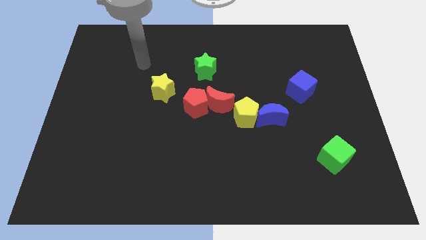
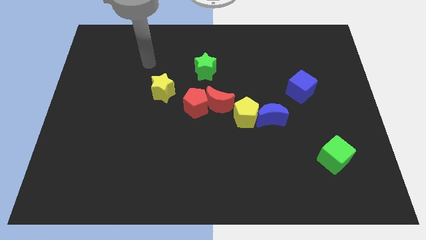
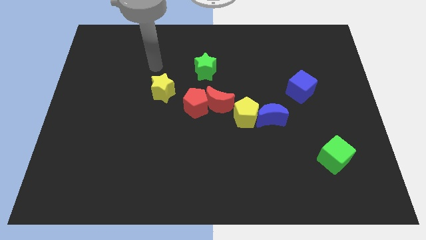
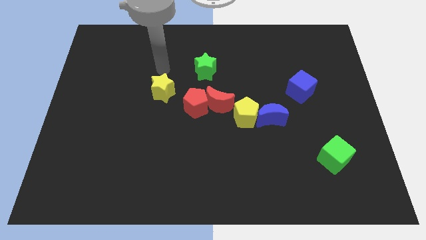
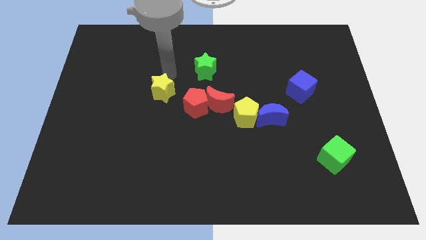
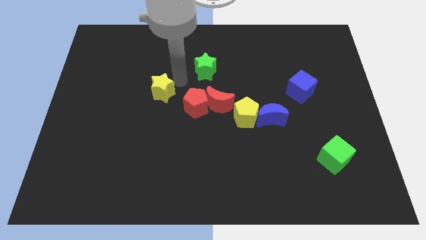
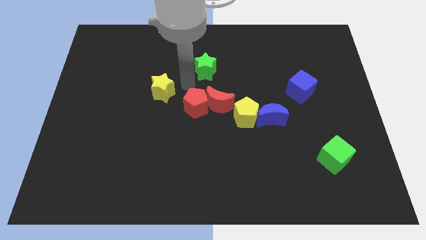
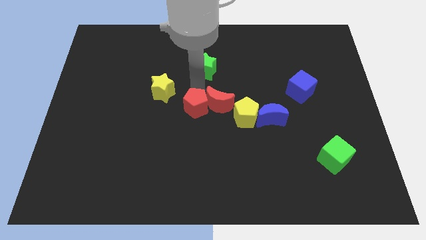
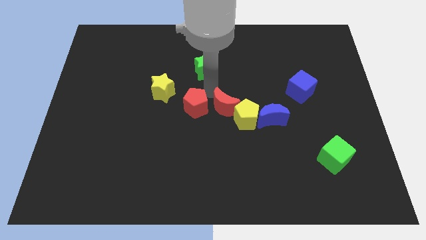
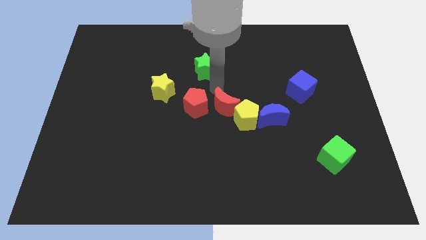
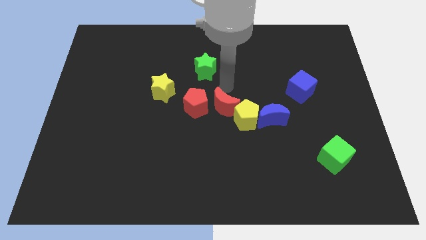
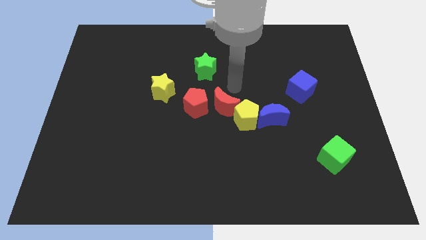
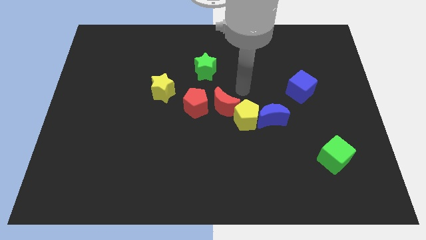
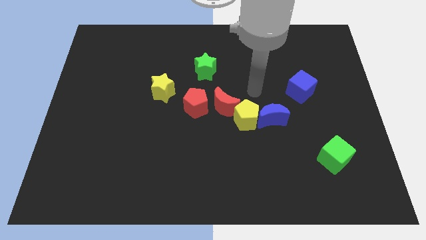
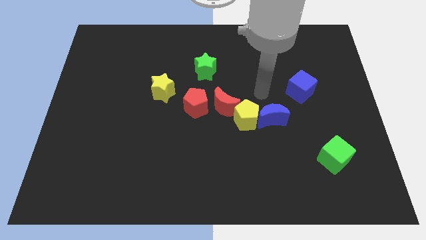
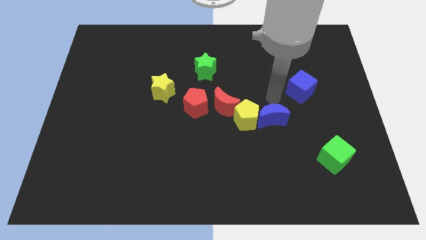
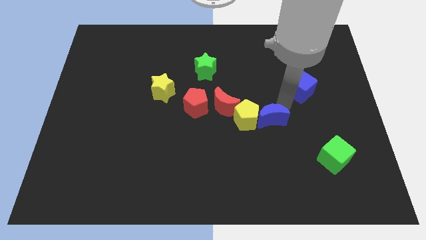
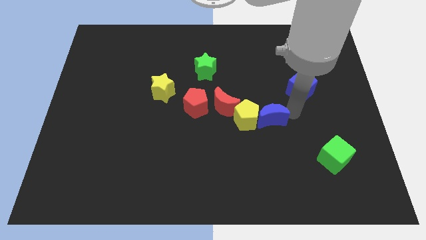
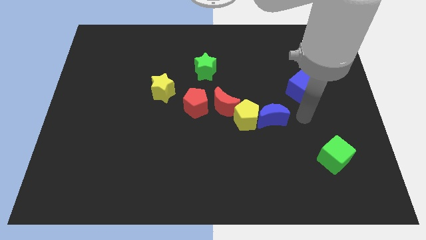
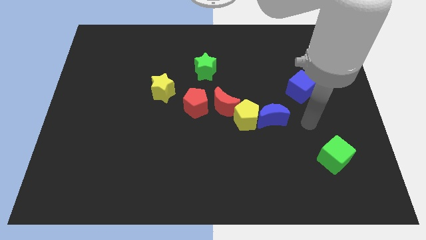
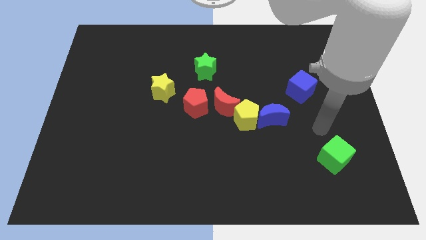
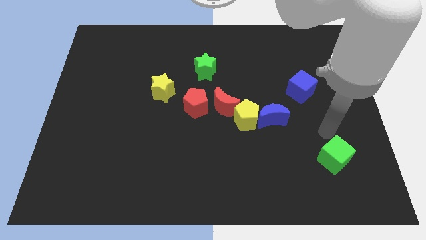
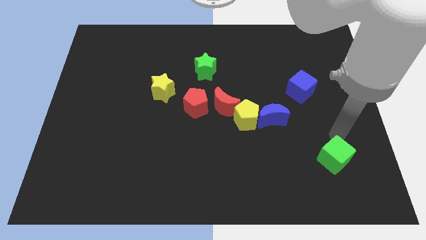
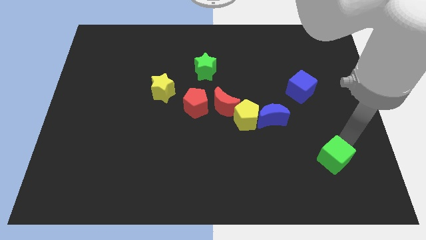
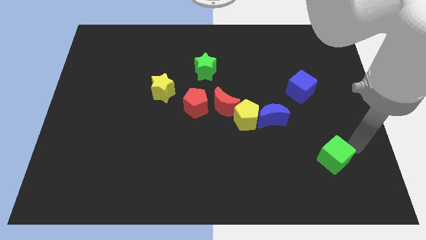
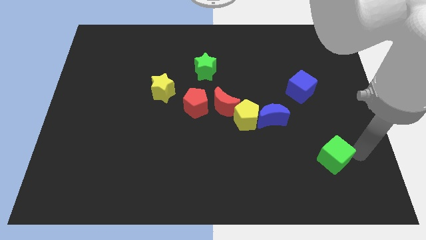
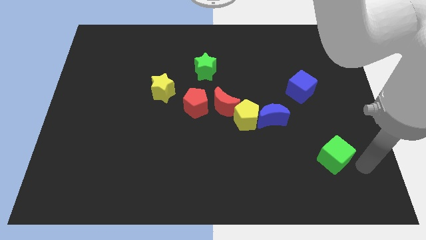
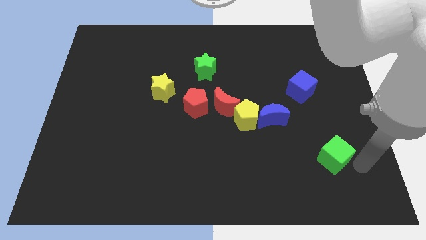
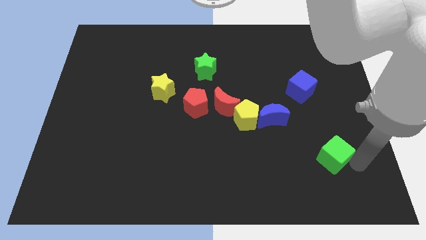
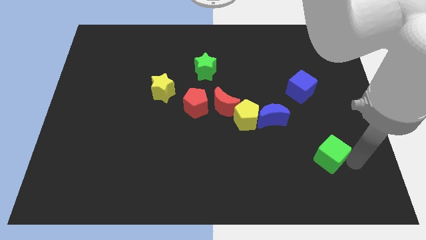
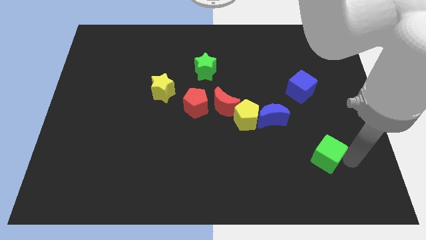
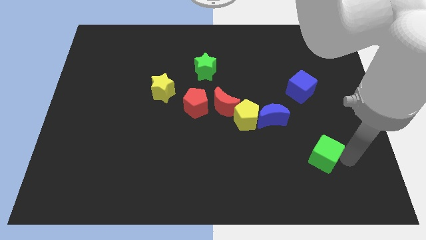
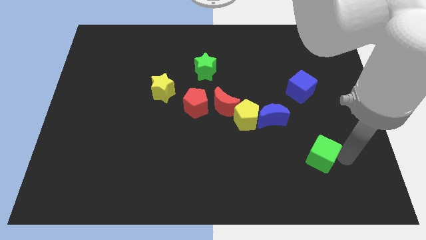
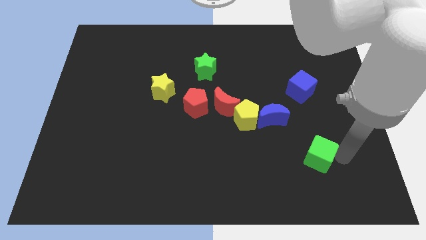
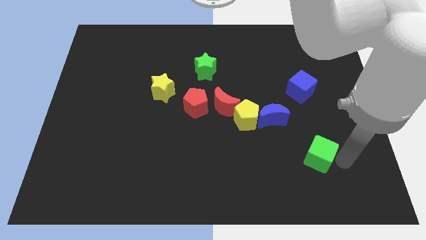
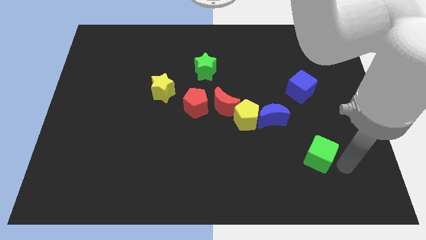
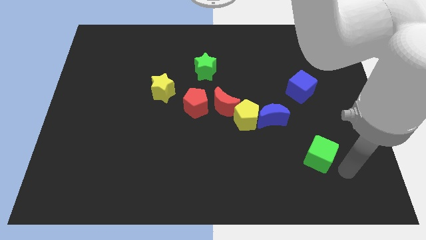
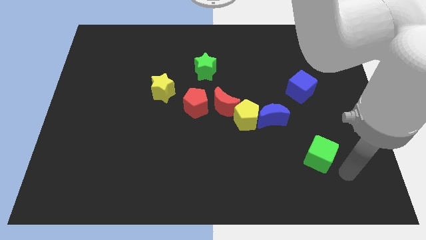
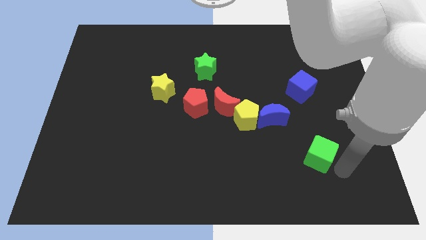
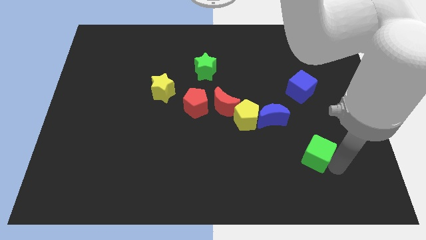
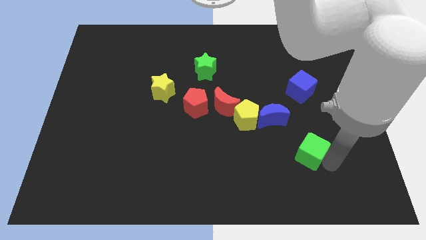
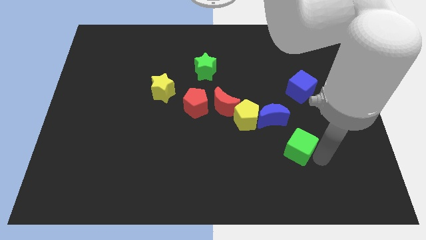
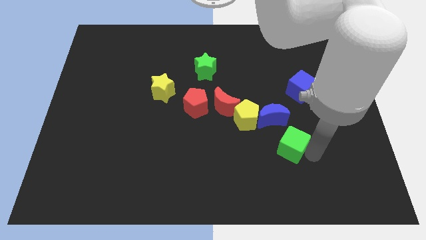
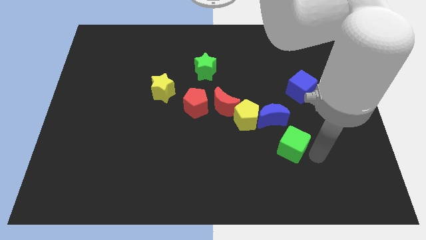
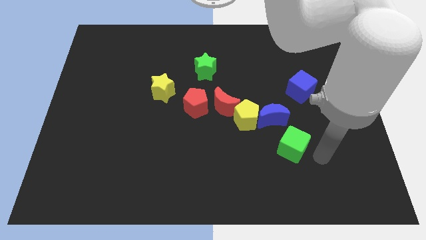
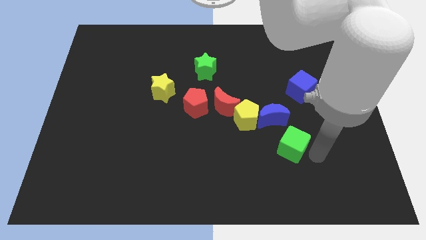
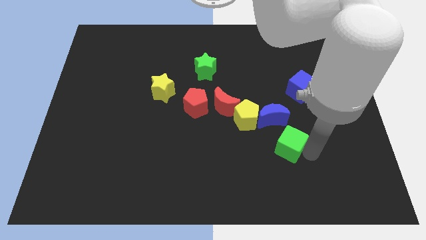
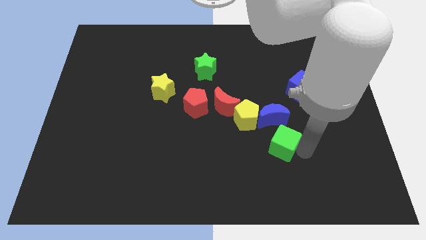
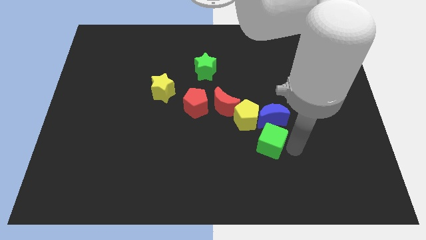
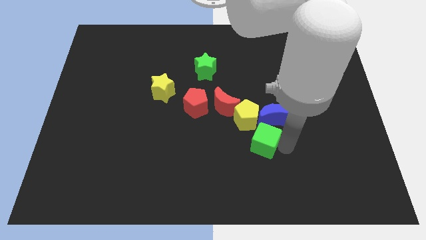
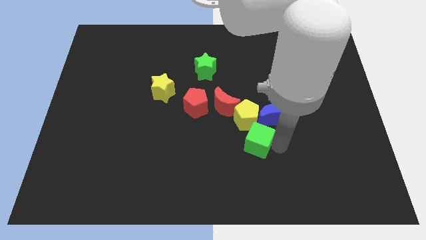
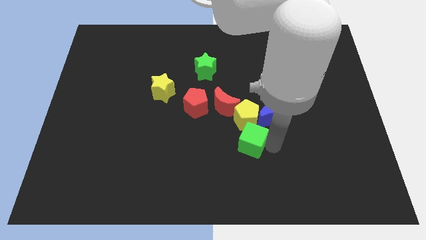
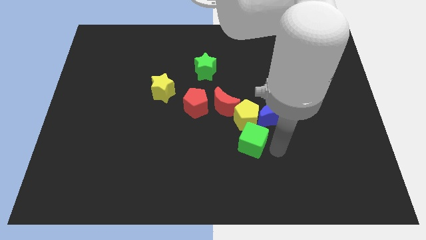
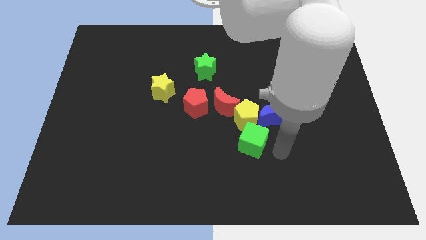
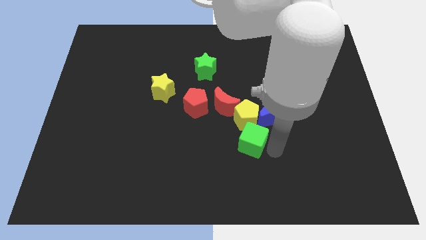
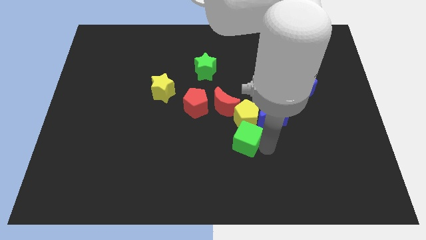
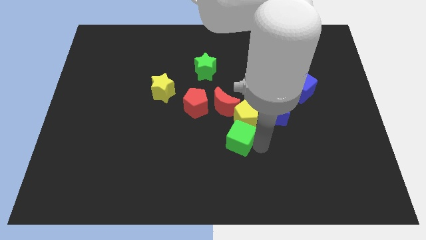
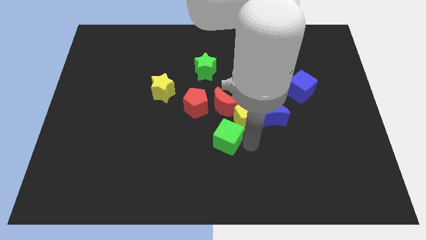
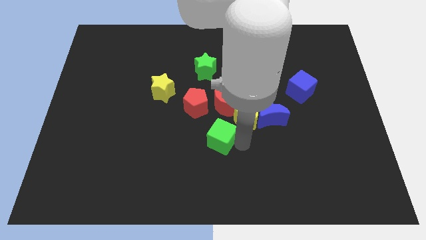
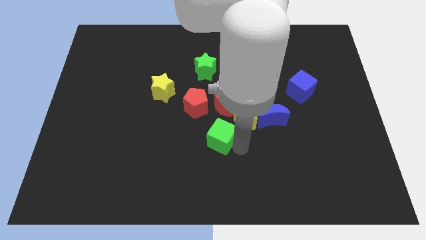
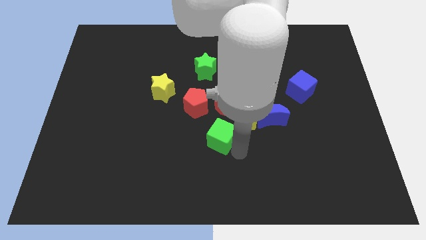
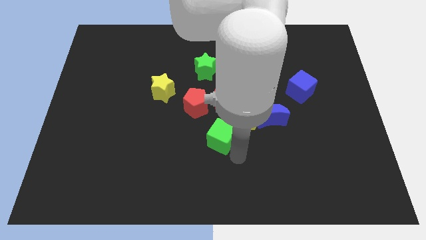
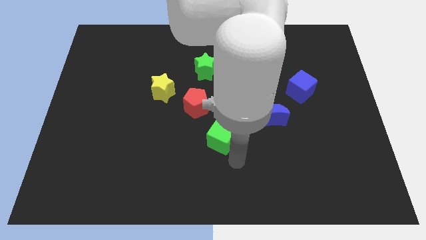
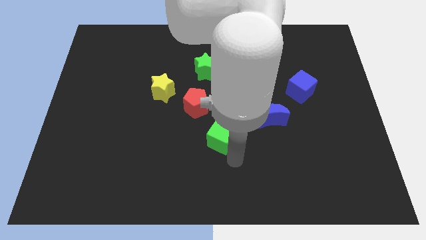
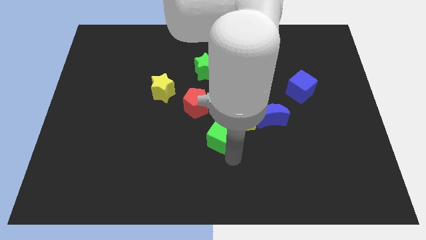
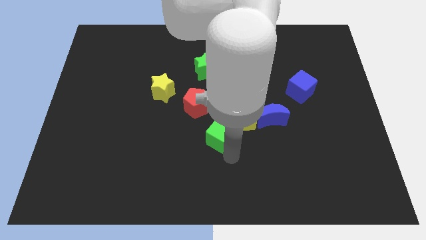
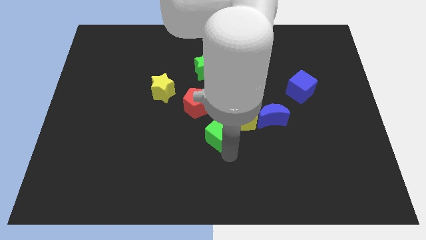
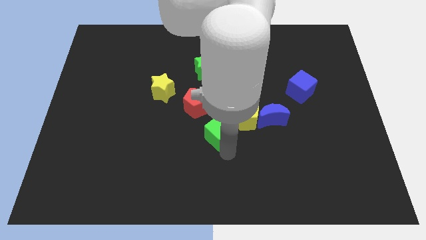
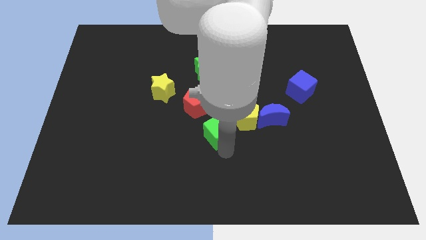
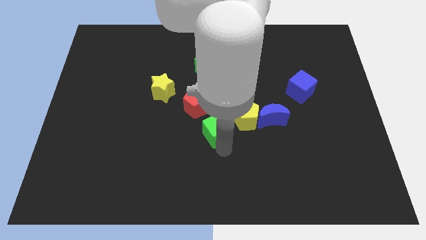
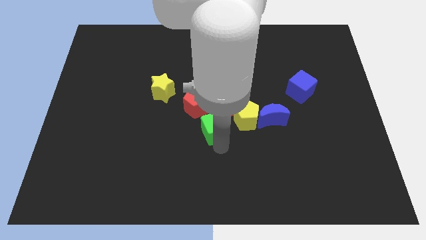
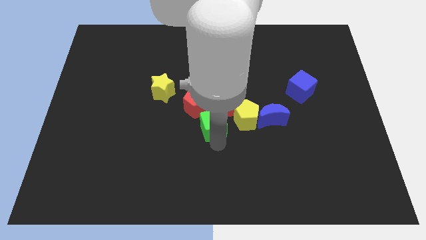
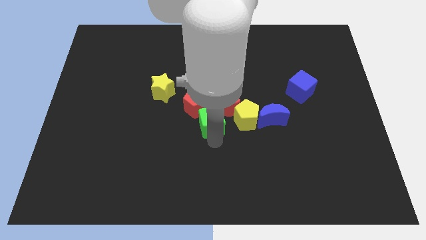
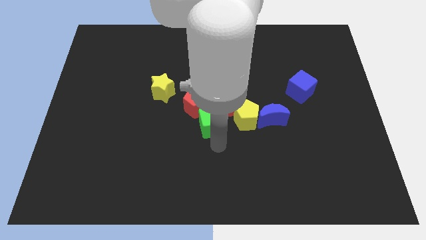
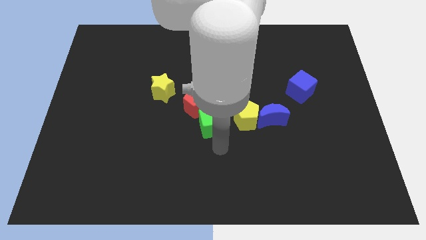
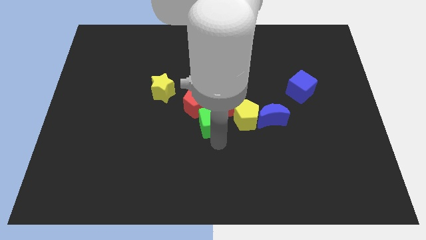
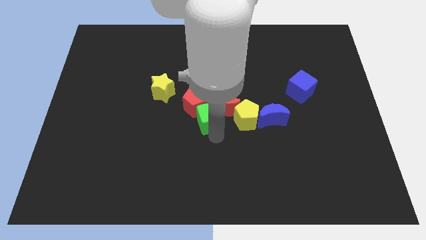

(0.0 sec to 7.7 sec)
slide the green cube to the bottom side of the green star

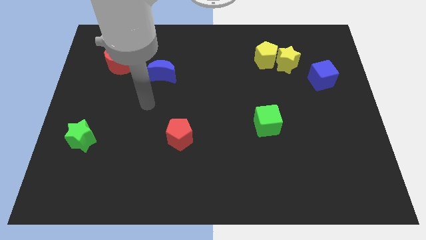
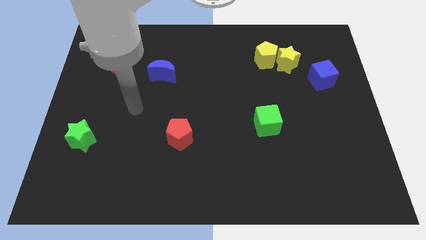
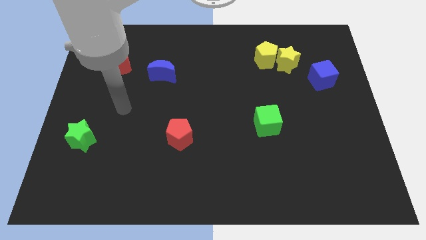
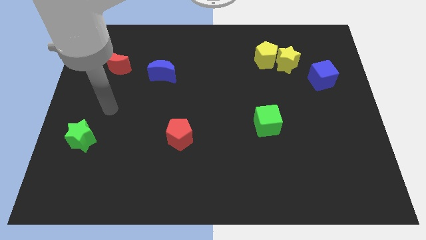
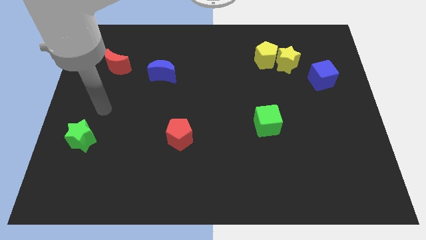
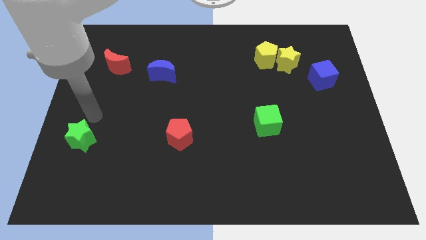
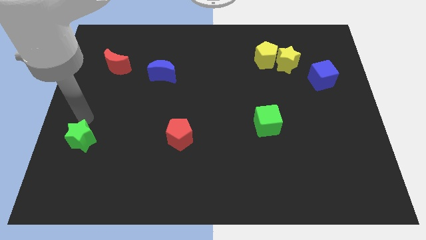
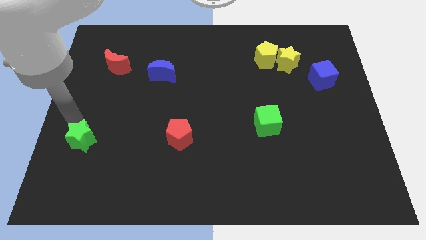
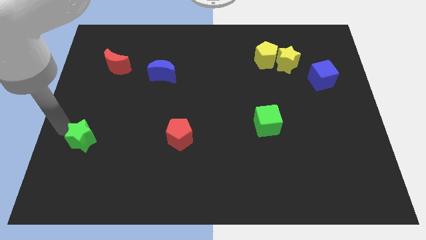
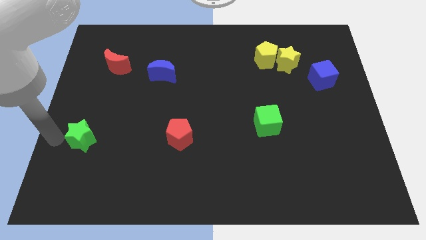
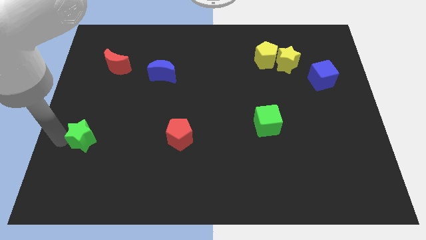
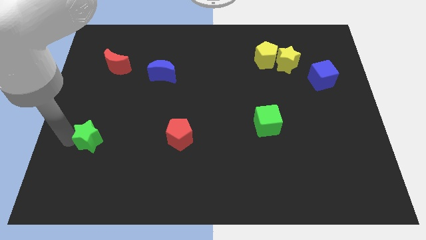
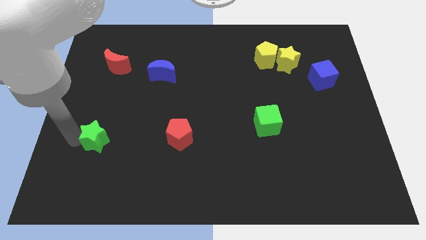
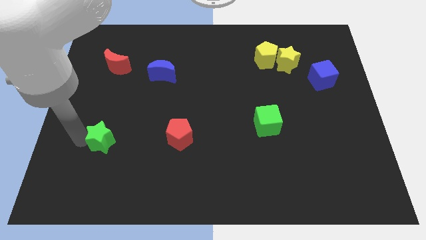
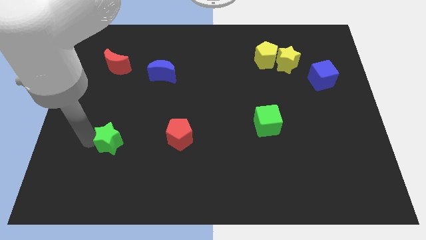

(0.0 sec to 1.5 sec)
push the green star to the left of the red pentagon
